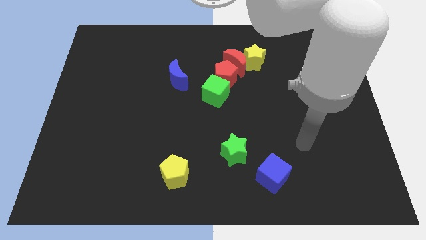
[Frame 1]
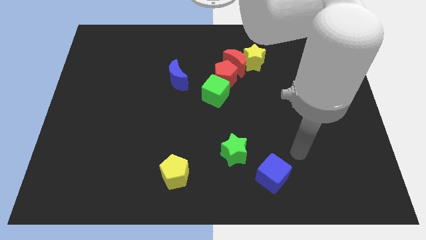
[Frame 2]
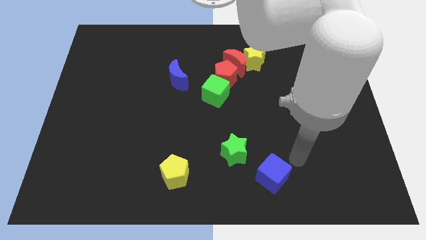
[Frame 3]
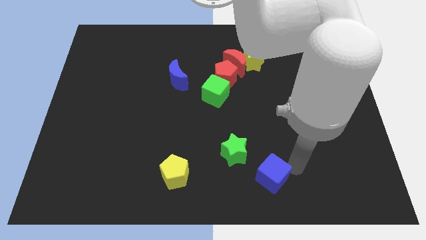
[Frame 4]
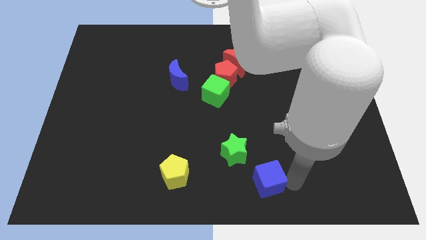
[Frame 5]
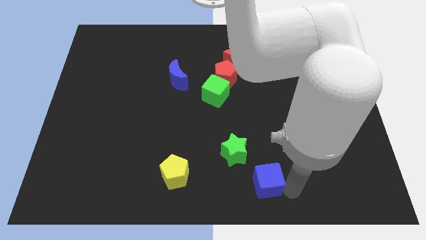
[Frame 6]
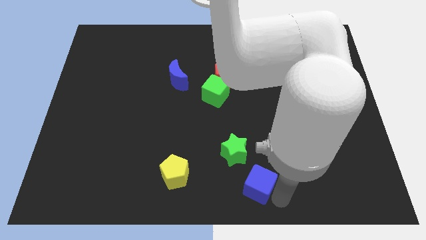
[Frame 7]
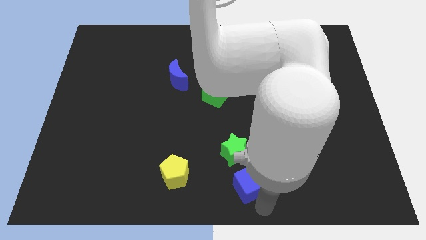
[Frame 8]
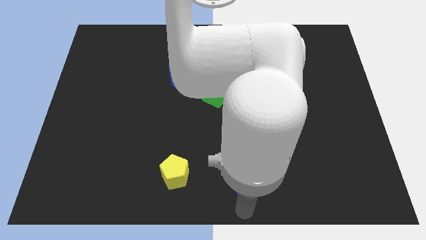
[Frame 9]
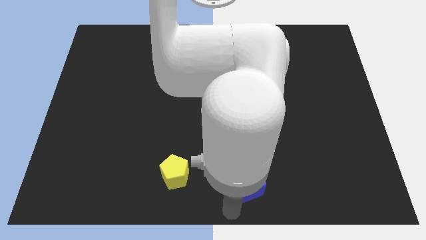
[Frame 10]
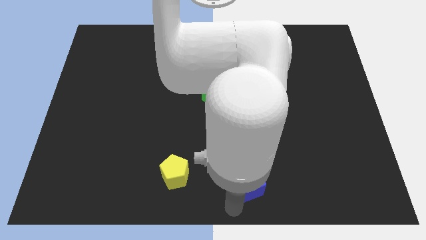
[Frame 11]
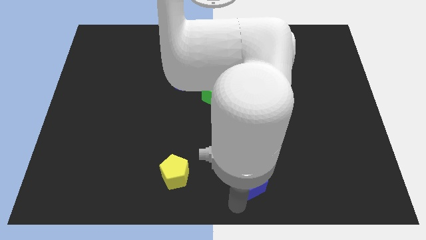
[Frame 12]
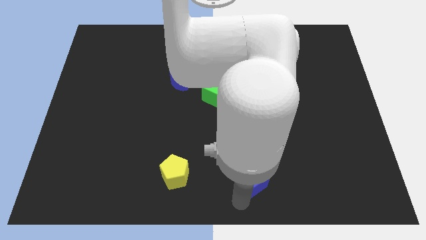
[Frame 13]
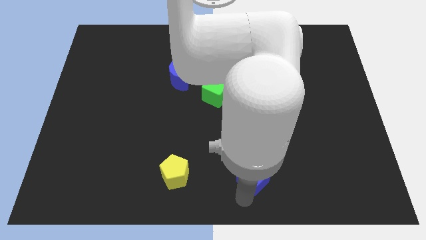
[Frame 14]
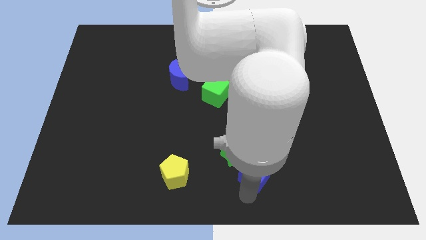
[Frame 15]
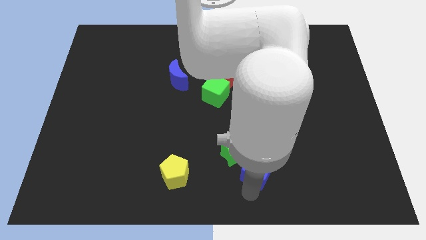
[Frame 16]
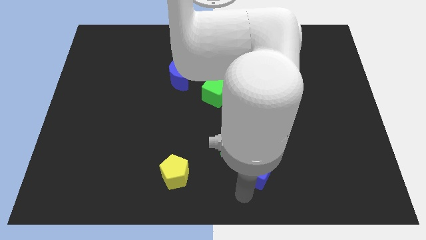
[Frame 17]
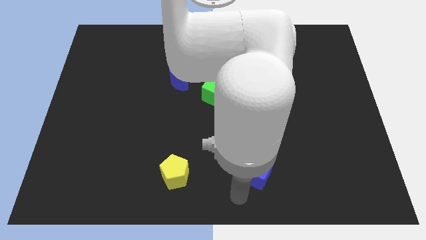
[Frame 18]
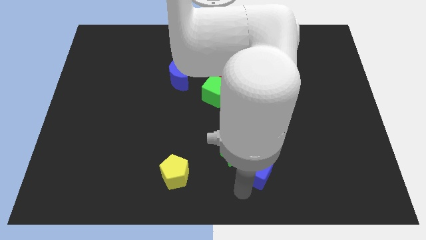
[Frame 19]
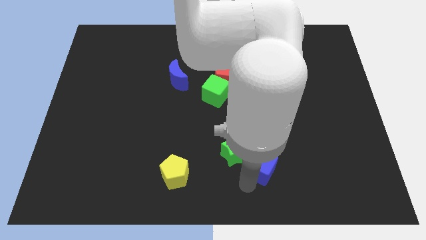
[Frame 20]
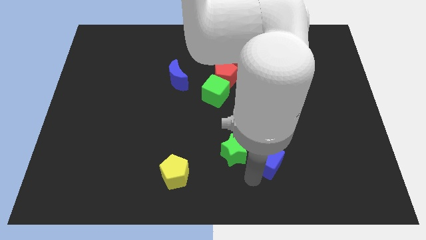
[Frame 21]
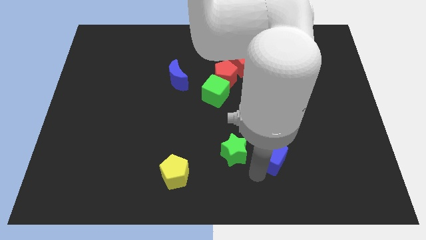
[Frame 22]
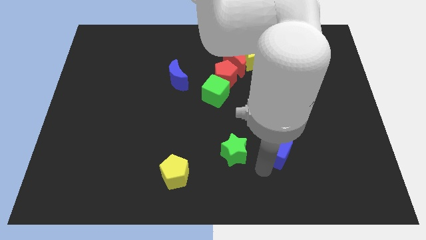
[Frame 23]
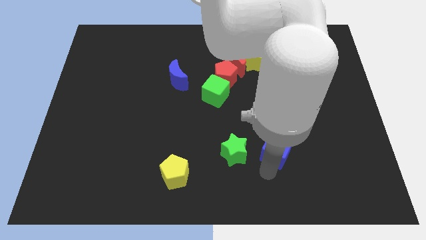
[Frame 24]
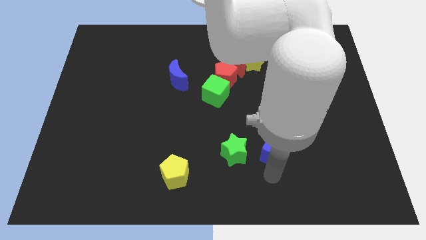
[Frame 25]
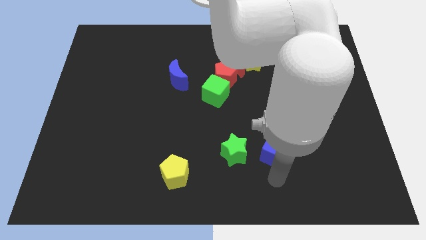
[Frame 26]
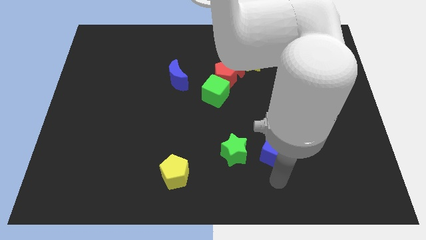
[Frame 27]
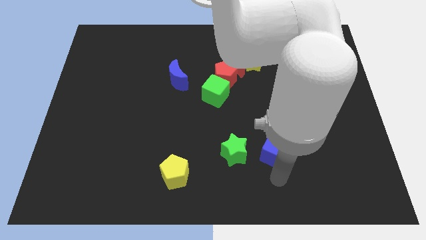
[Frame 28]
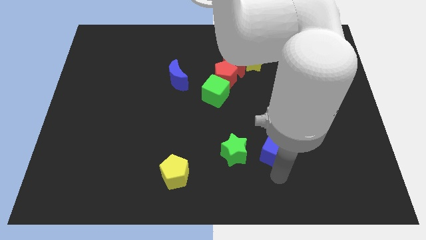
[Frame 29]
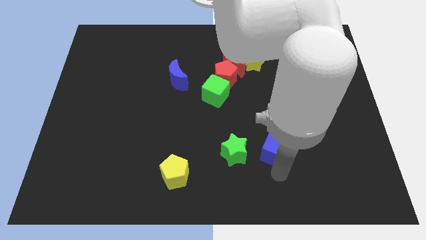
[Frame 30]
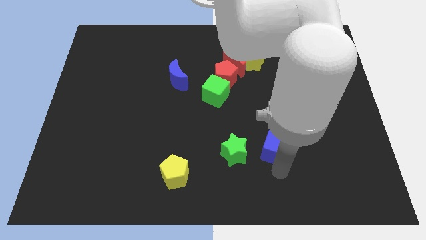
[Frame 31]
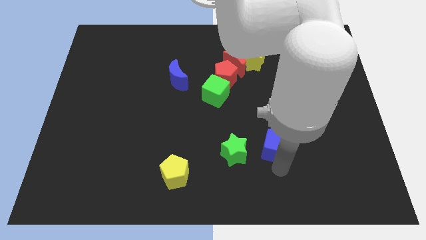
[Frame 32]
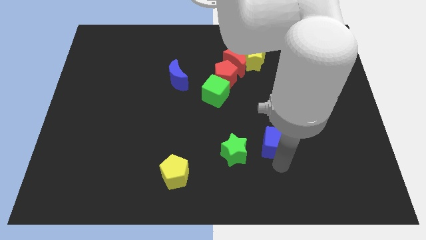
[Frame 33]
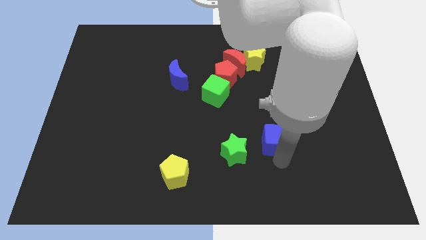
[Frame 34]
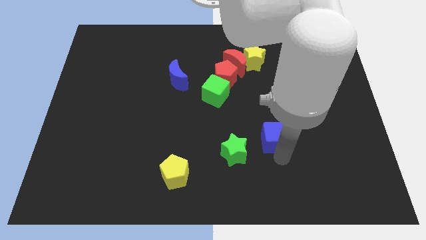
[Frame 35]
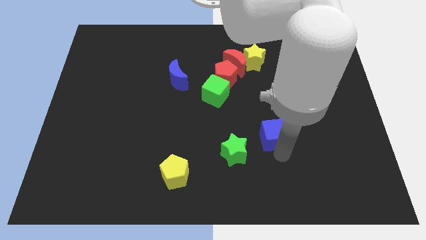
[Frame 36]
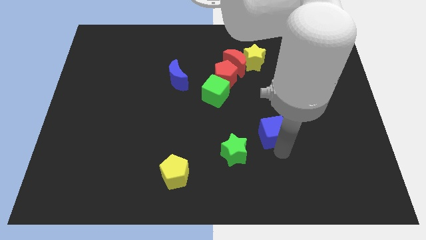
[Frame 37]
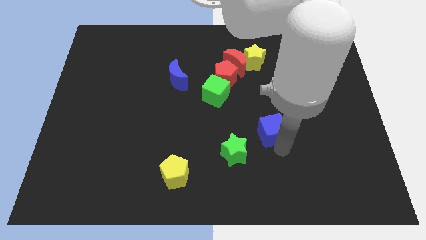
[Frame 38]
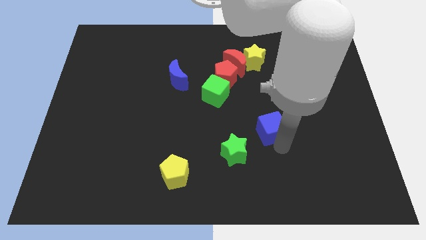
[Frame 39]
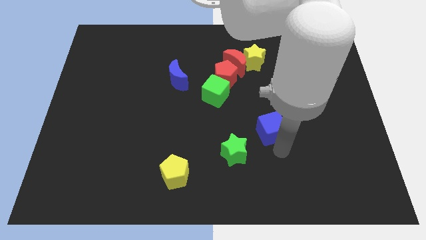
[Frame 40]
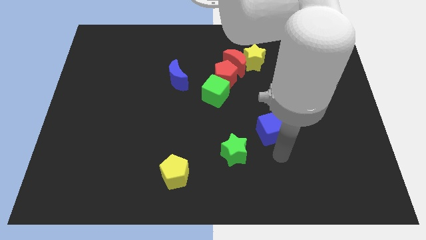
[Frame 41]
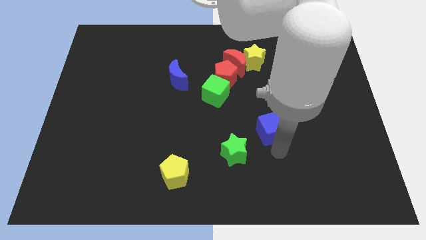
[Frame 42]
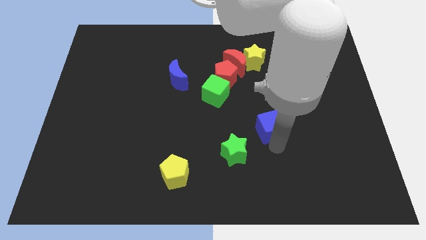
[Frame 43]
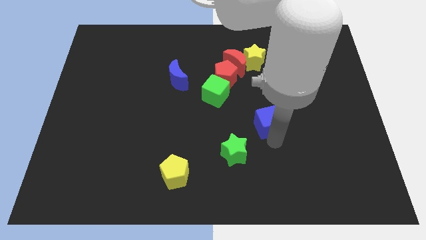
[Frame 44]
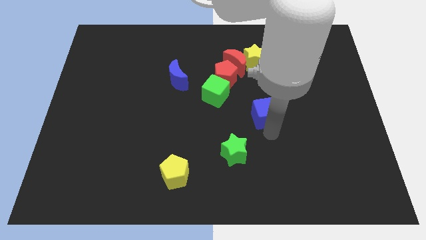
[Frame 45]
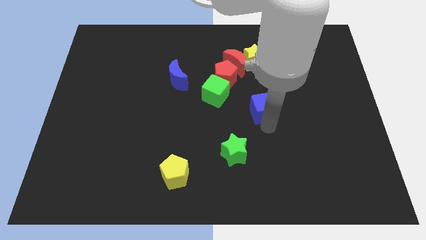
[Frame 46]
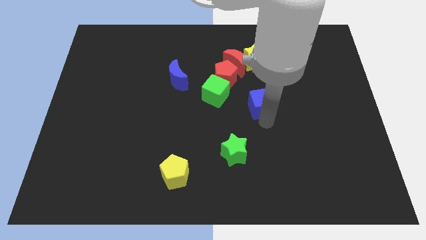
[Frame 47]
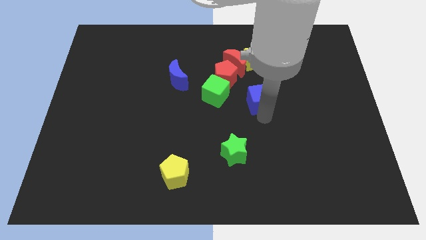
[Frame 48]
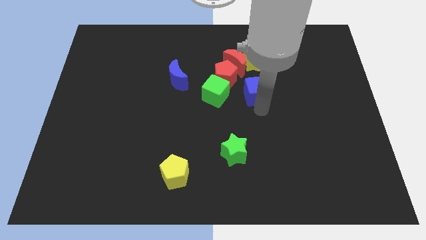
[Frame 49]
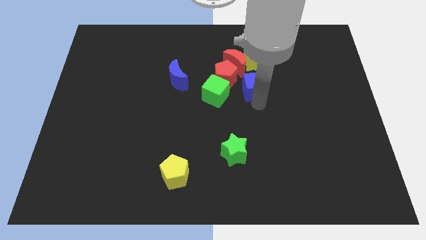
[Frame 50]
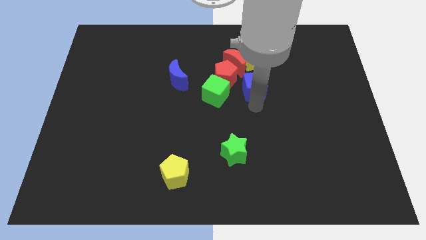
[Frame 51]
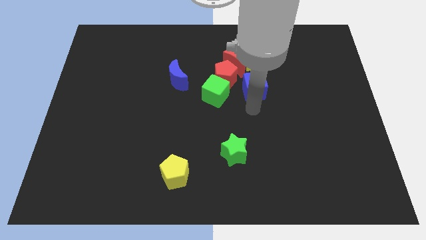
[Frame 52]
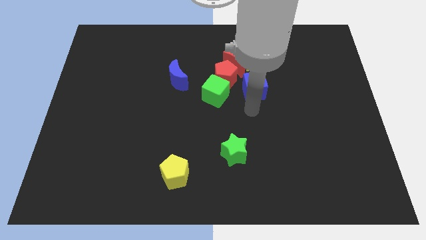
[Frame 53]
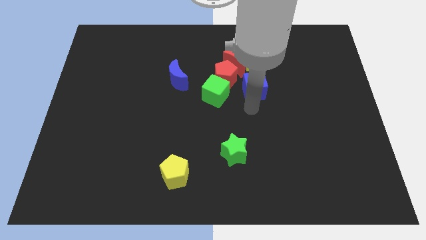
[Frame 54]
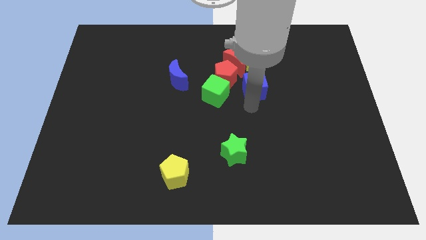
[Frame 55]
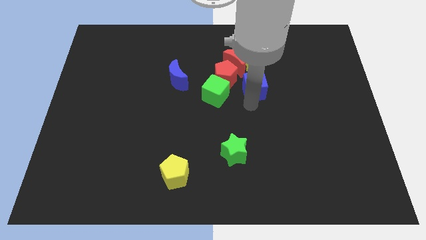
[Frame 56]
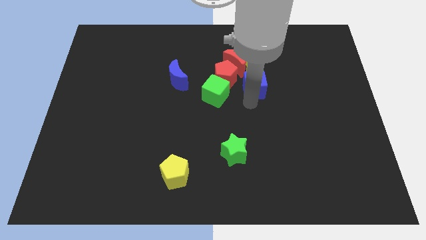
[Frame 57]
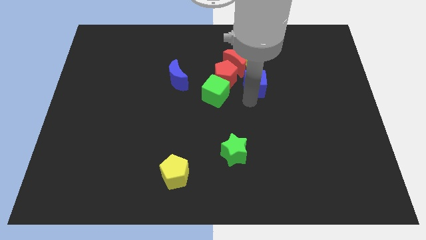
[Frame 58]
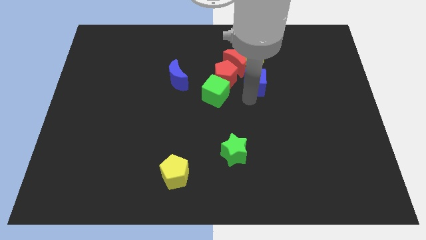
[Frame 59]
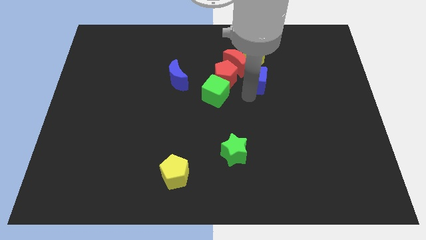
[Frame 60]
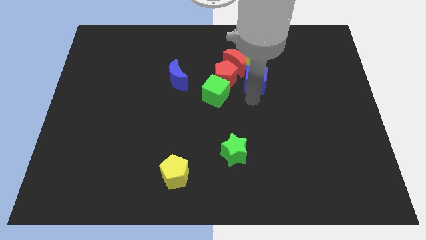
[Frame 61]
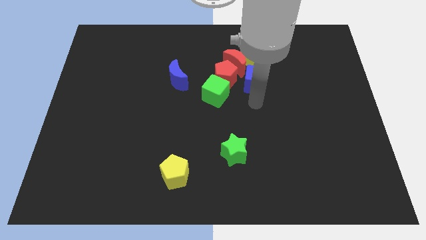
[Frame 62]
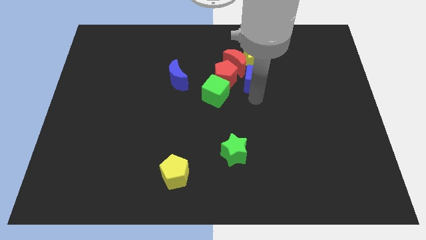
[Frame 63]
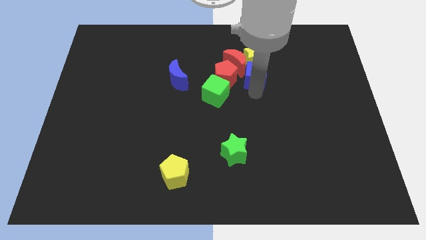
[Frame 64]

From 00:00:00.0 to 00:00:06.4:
put the blue cube close to the yellow star

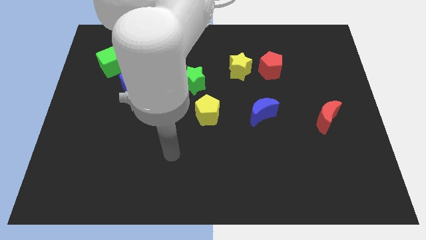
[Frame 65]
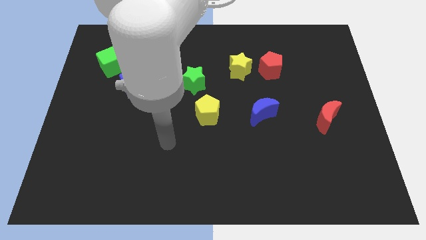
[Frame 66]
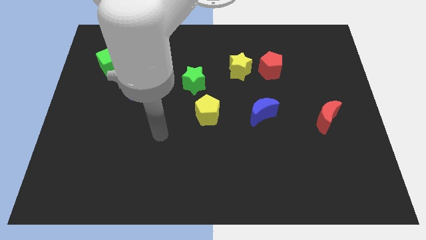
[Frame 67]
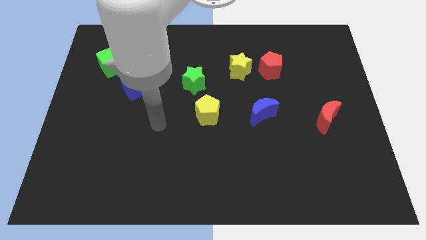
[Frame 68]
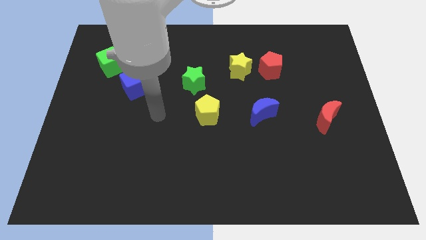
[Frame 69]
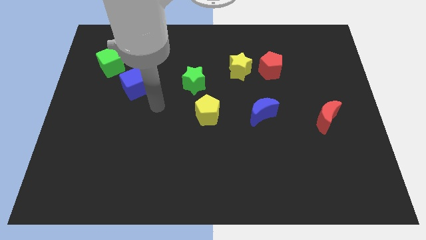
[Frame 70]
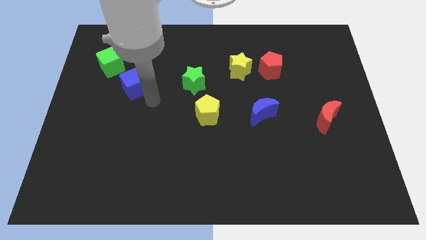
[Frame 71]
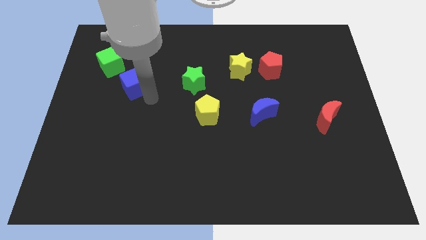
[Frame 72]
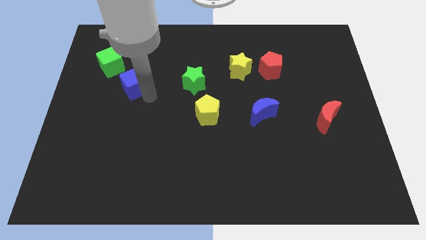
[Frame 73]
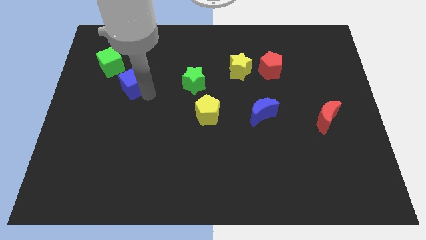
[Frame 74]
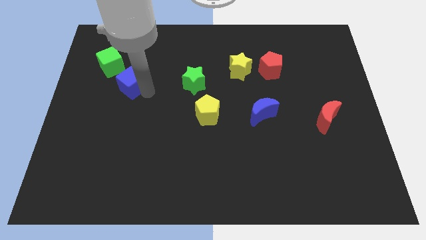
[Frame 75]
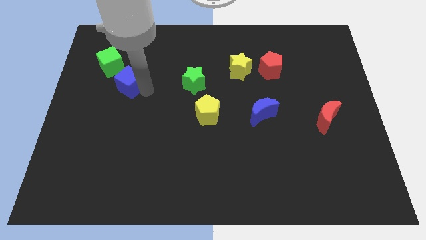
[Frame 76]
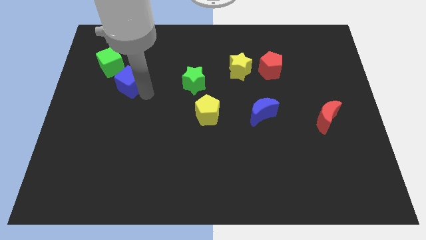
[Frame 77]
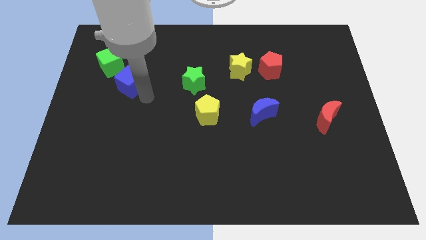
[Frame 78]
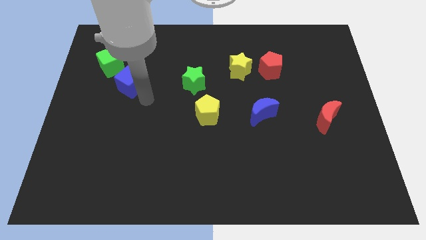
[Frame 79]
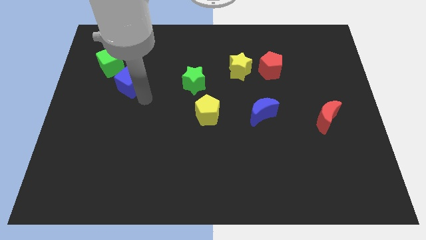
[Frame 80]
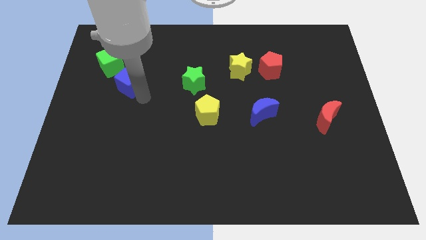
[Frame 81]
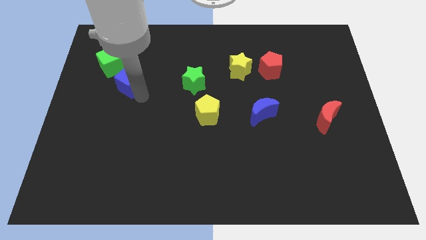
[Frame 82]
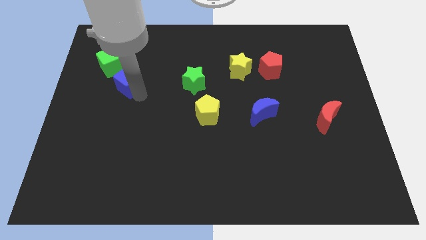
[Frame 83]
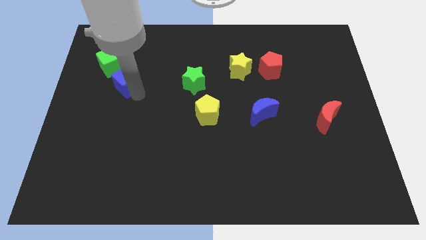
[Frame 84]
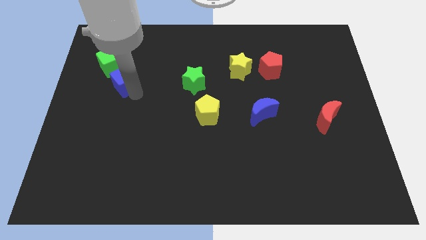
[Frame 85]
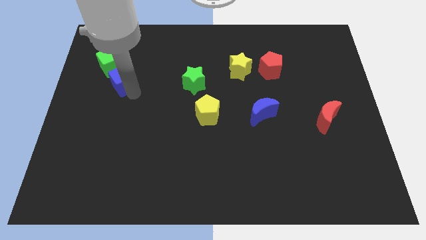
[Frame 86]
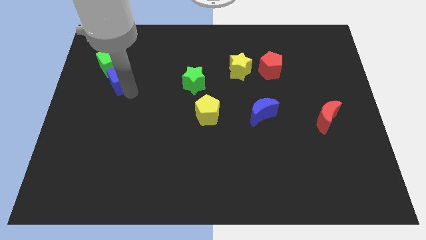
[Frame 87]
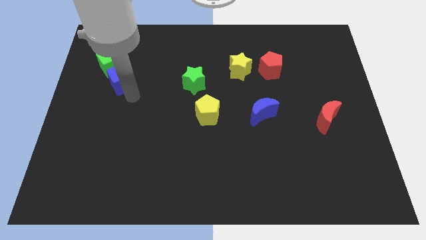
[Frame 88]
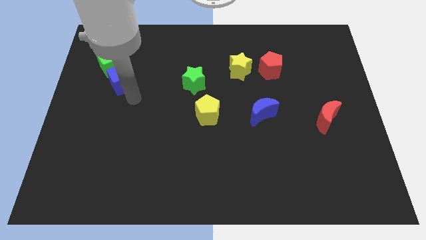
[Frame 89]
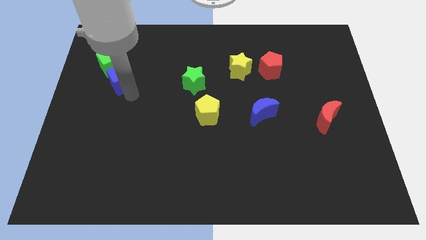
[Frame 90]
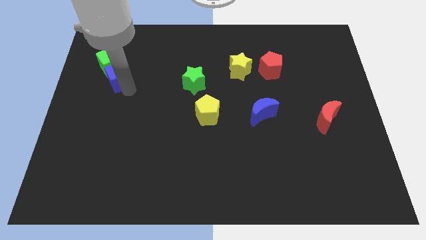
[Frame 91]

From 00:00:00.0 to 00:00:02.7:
put the blue cube next to the green cube
